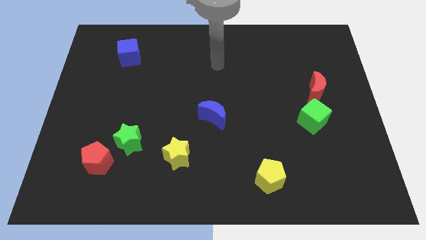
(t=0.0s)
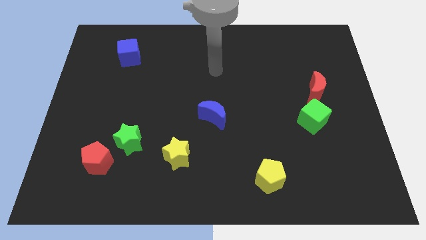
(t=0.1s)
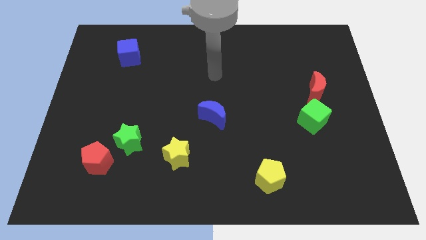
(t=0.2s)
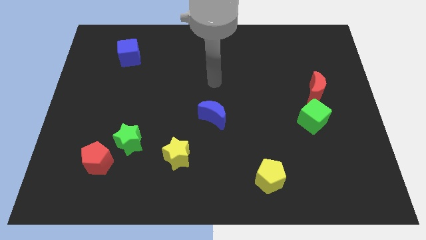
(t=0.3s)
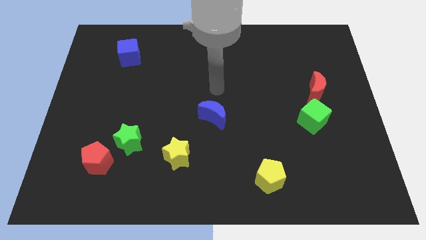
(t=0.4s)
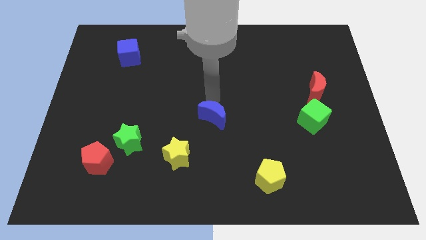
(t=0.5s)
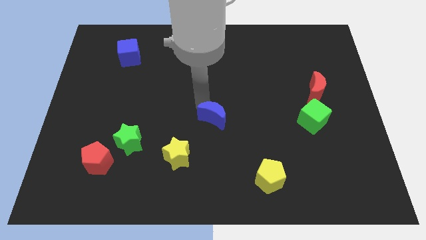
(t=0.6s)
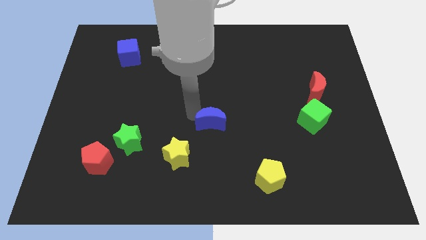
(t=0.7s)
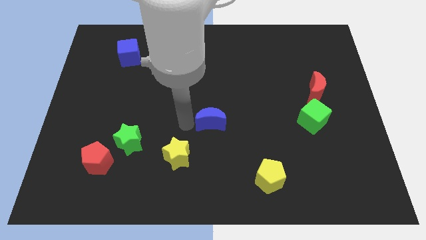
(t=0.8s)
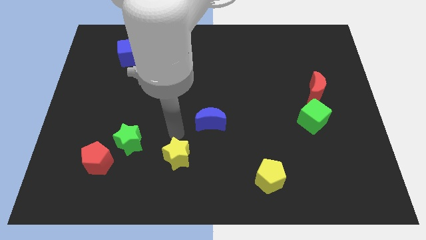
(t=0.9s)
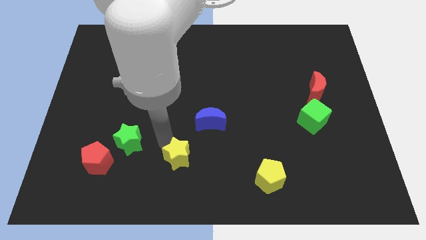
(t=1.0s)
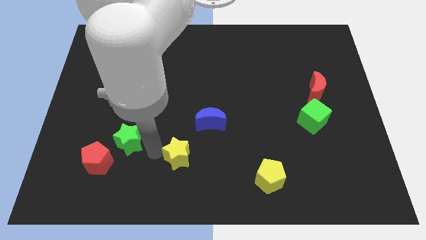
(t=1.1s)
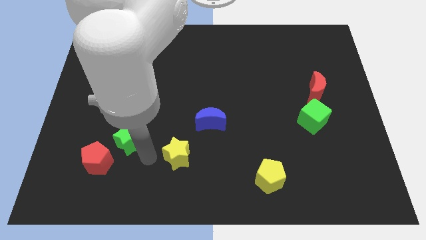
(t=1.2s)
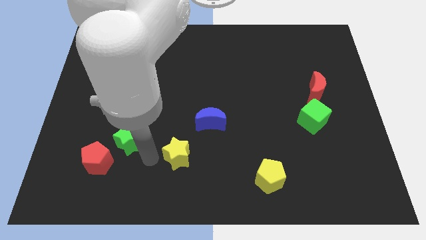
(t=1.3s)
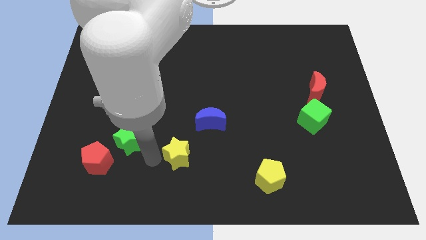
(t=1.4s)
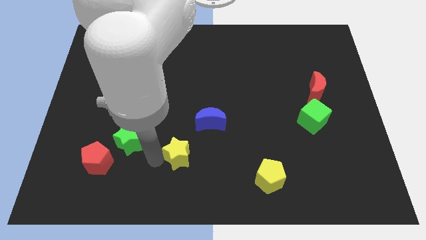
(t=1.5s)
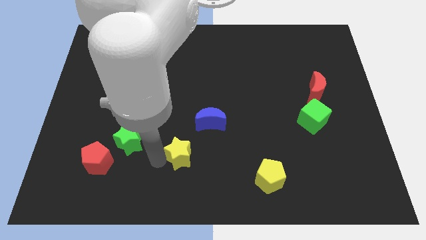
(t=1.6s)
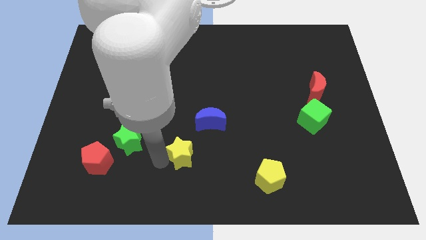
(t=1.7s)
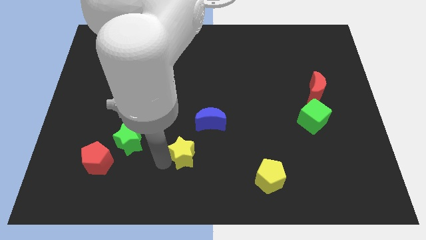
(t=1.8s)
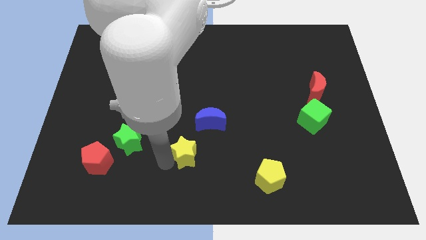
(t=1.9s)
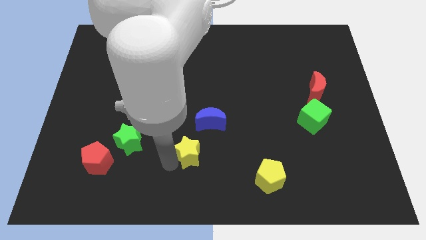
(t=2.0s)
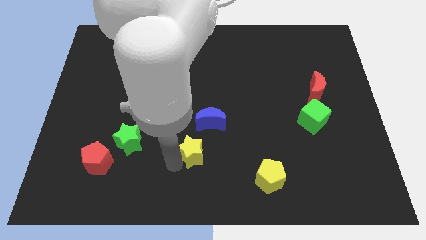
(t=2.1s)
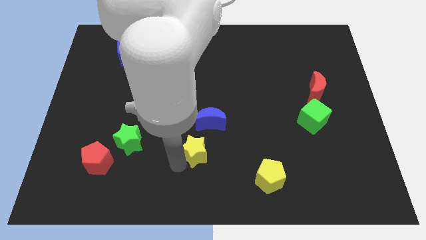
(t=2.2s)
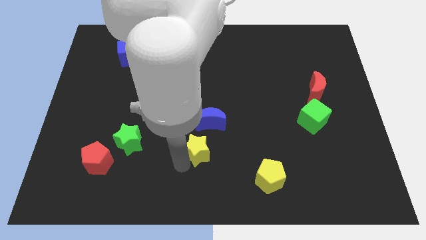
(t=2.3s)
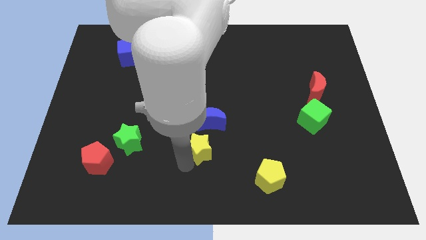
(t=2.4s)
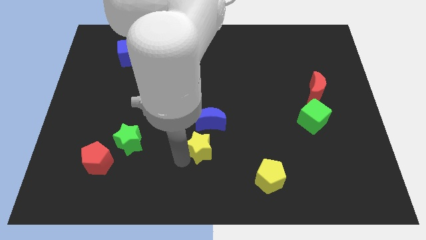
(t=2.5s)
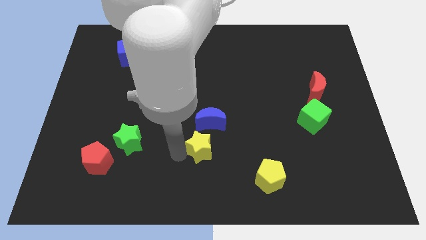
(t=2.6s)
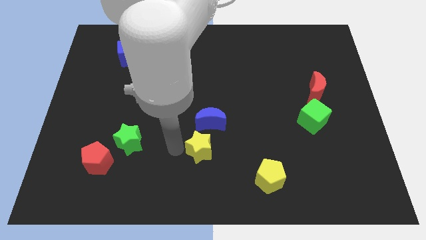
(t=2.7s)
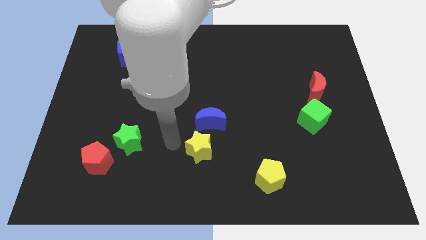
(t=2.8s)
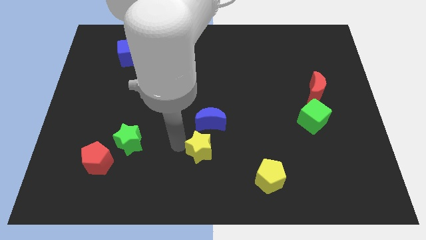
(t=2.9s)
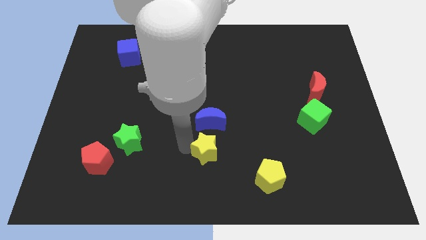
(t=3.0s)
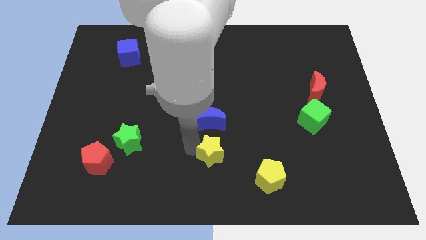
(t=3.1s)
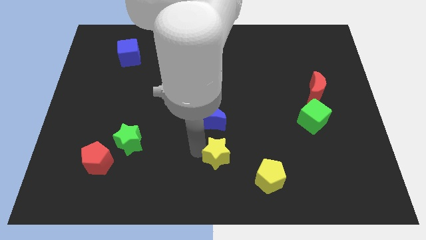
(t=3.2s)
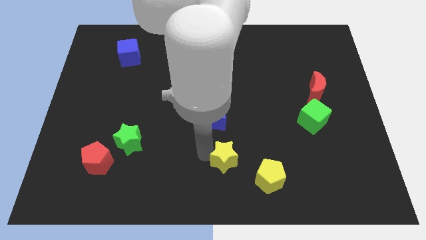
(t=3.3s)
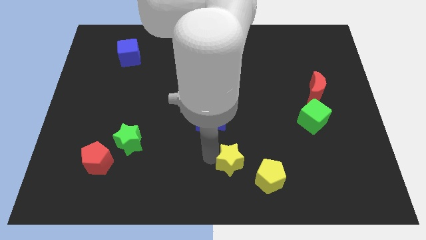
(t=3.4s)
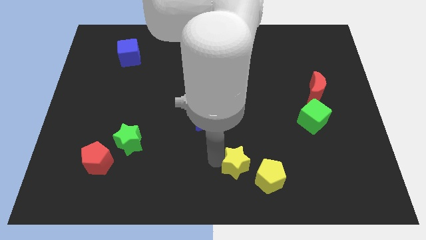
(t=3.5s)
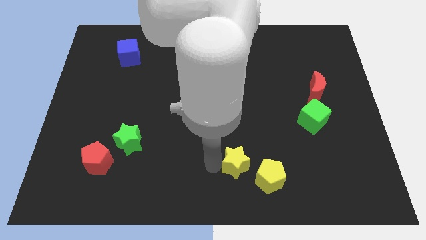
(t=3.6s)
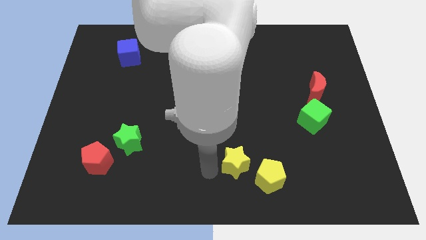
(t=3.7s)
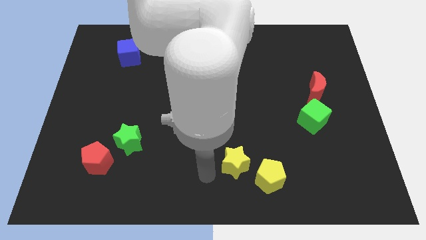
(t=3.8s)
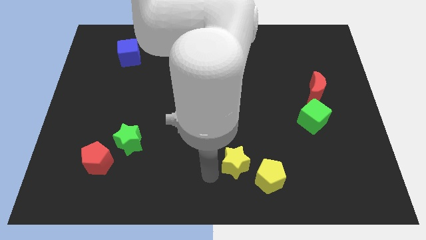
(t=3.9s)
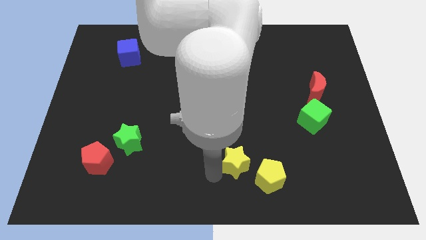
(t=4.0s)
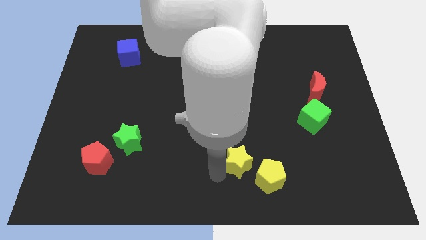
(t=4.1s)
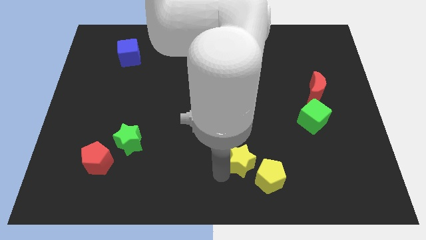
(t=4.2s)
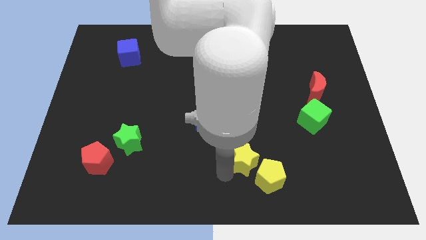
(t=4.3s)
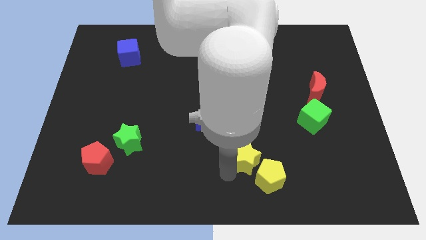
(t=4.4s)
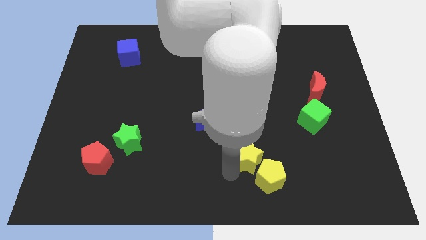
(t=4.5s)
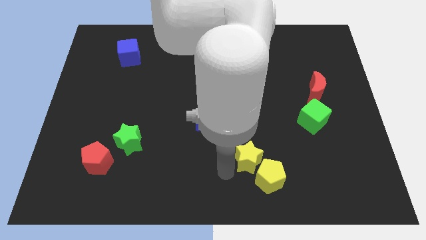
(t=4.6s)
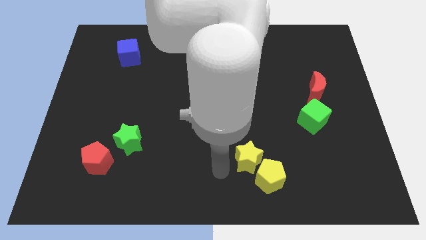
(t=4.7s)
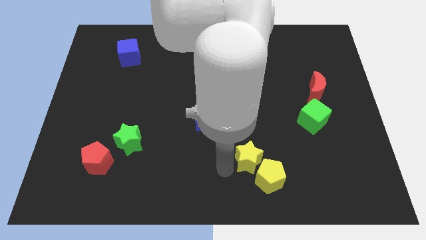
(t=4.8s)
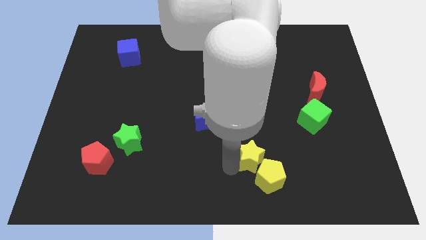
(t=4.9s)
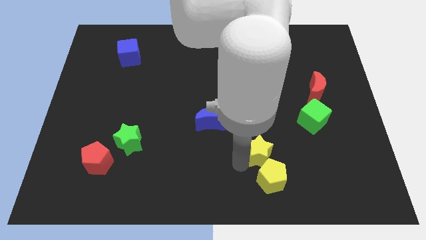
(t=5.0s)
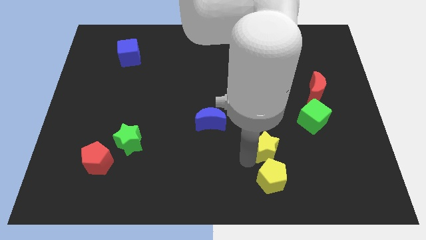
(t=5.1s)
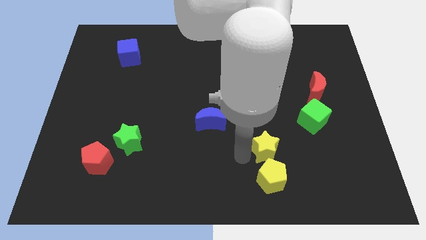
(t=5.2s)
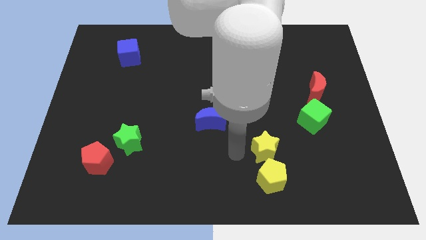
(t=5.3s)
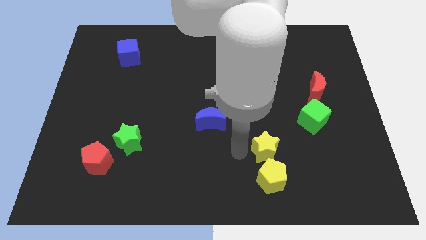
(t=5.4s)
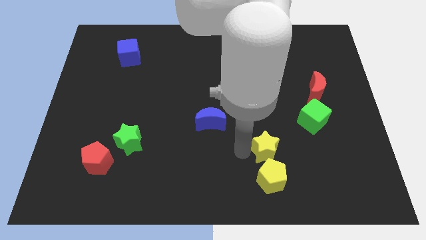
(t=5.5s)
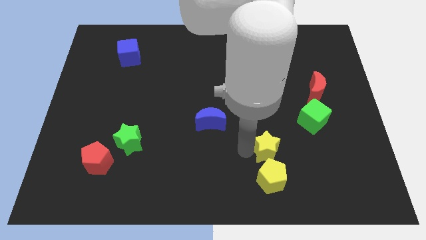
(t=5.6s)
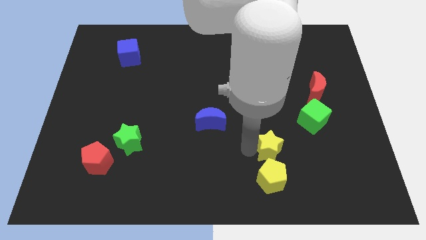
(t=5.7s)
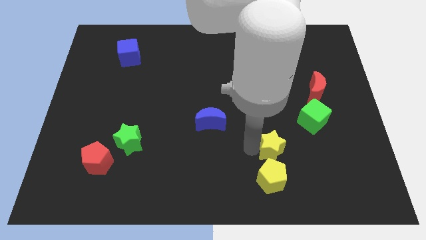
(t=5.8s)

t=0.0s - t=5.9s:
push the yellow star right

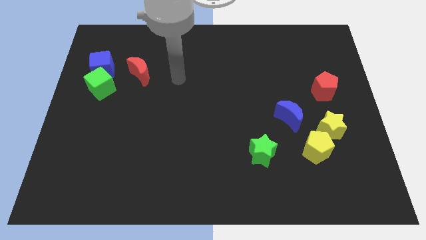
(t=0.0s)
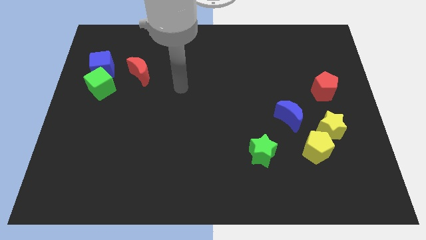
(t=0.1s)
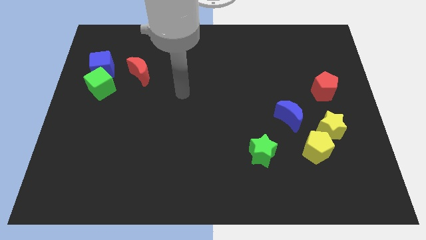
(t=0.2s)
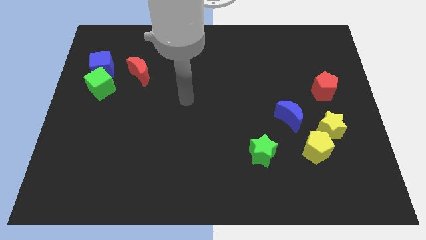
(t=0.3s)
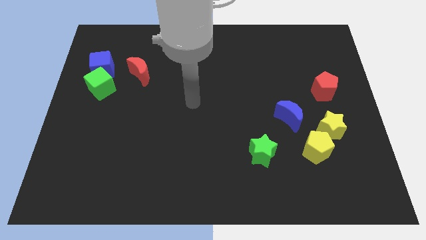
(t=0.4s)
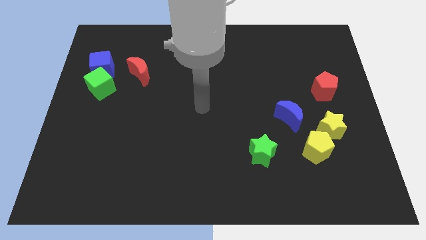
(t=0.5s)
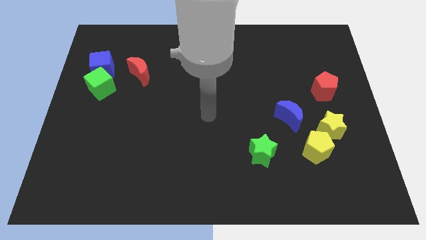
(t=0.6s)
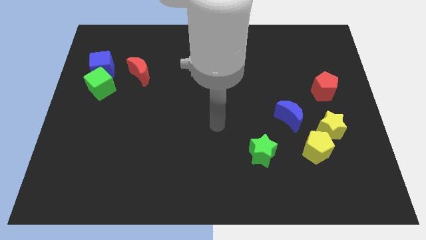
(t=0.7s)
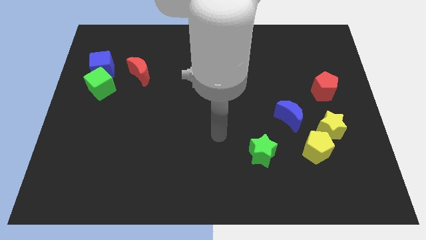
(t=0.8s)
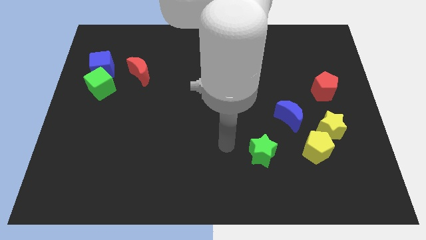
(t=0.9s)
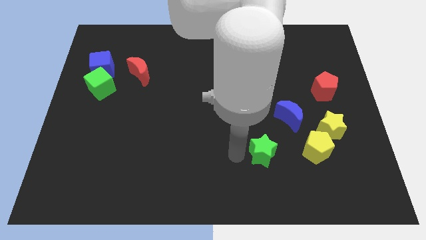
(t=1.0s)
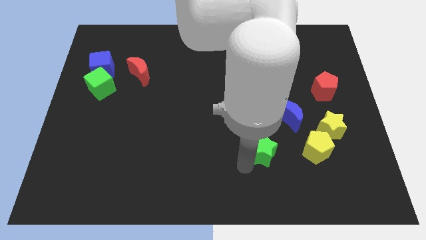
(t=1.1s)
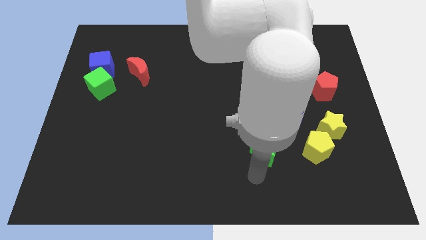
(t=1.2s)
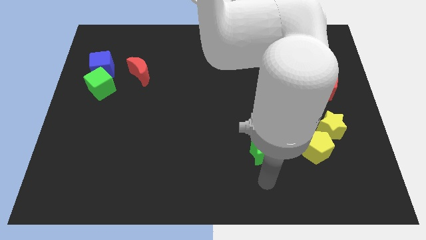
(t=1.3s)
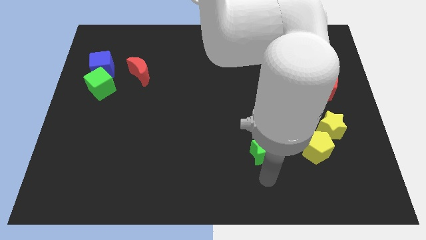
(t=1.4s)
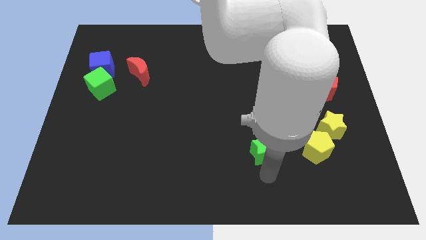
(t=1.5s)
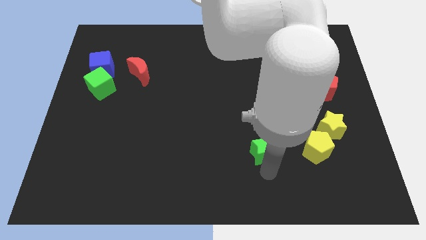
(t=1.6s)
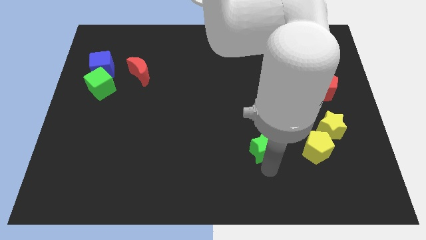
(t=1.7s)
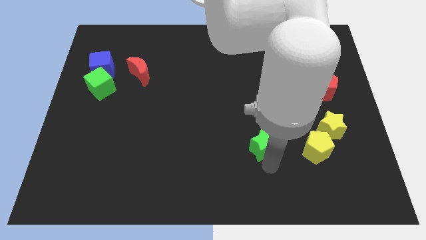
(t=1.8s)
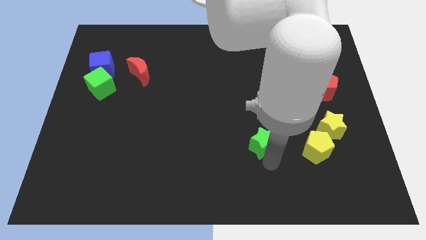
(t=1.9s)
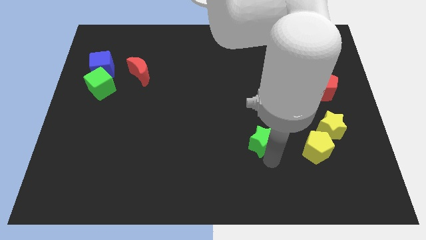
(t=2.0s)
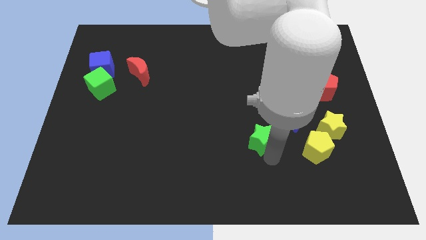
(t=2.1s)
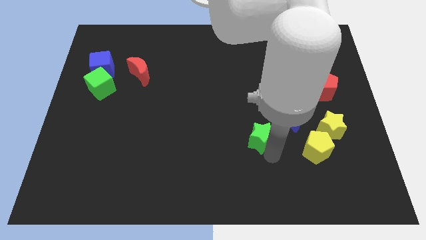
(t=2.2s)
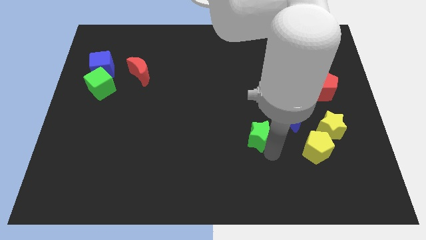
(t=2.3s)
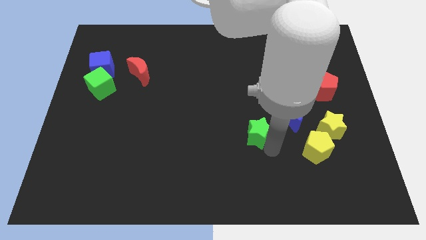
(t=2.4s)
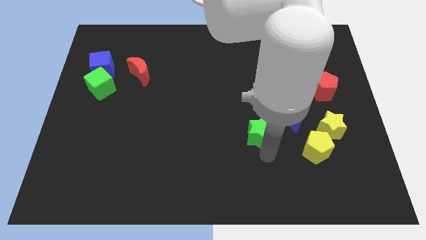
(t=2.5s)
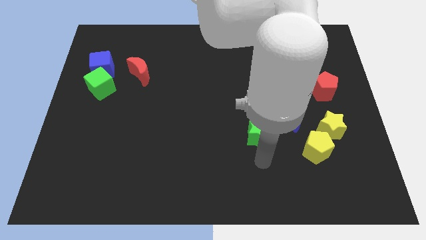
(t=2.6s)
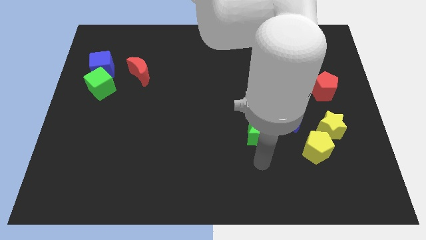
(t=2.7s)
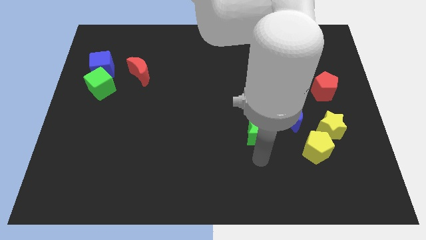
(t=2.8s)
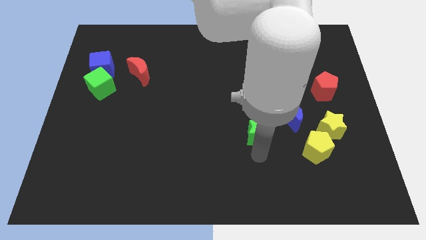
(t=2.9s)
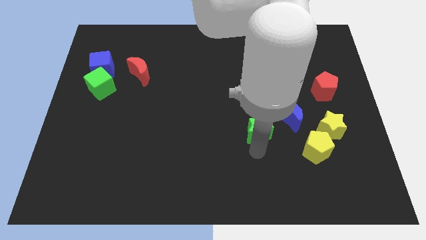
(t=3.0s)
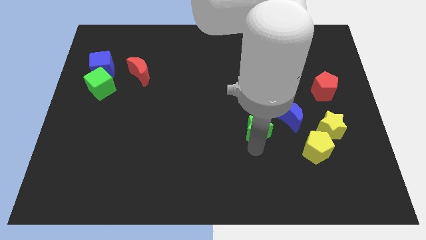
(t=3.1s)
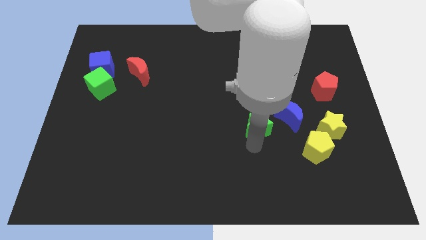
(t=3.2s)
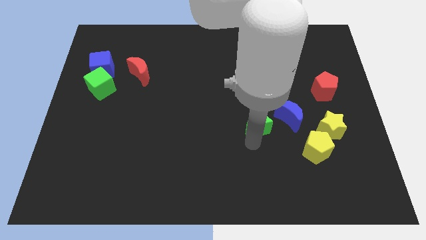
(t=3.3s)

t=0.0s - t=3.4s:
slightly slide the green star up
